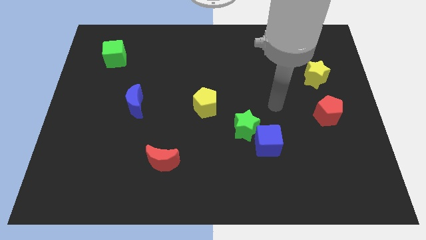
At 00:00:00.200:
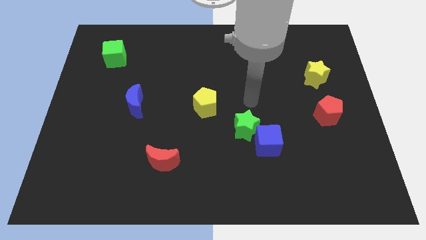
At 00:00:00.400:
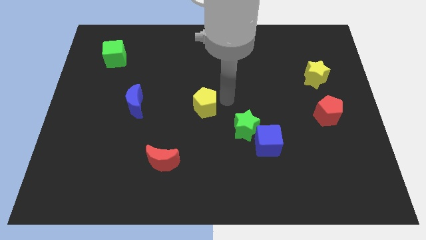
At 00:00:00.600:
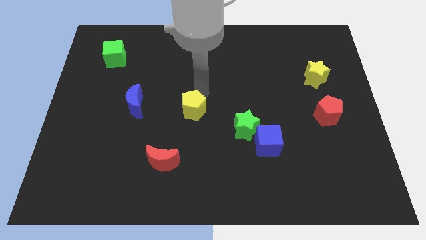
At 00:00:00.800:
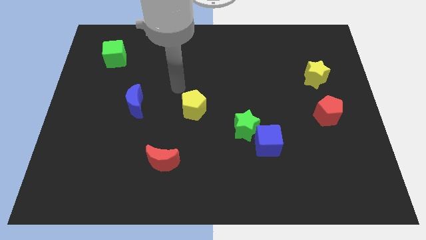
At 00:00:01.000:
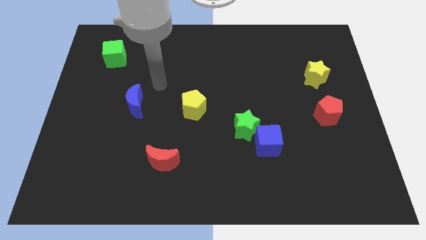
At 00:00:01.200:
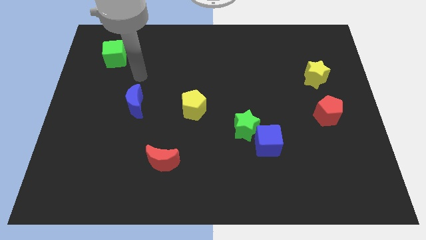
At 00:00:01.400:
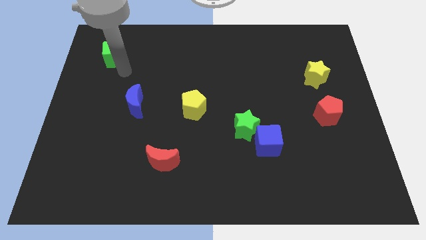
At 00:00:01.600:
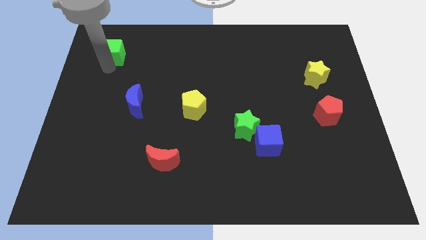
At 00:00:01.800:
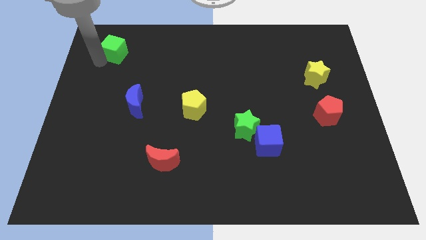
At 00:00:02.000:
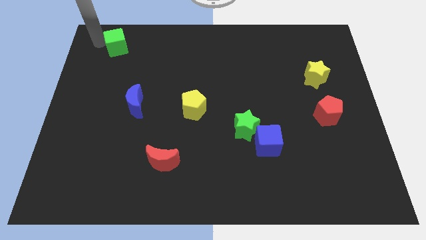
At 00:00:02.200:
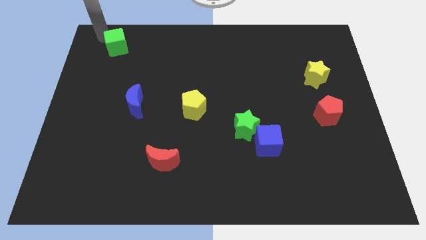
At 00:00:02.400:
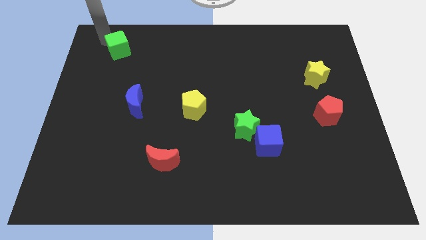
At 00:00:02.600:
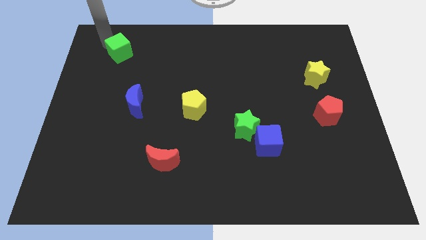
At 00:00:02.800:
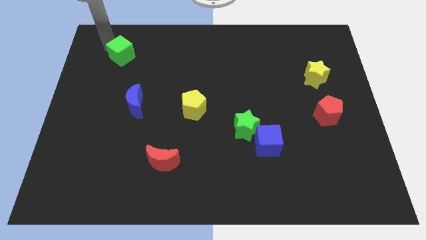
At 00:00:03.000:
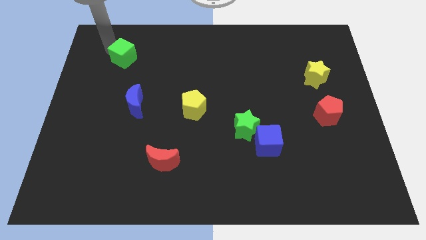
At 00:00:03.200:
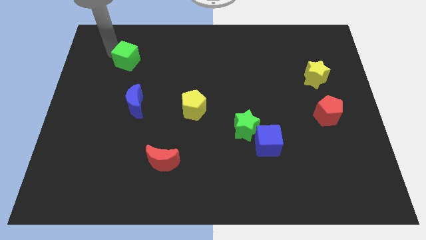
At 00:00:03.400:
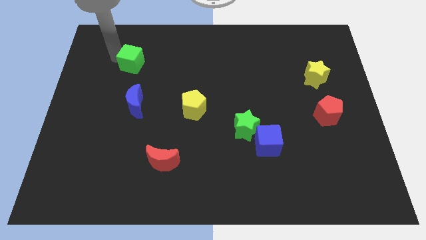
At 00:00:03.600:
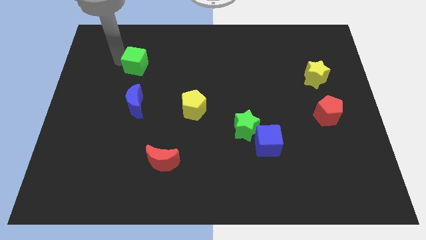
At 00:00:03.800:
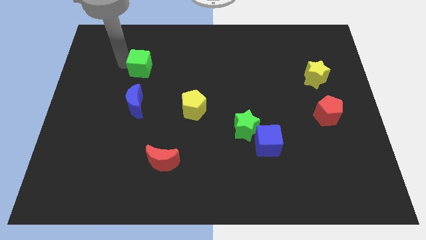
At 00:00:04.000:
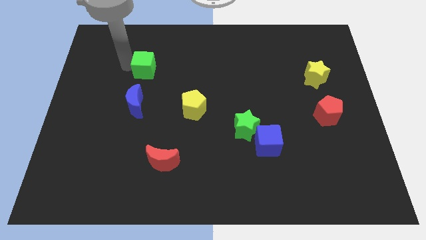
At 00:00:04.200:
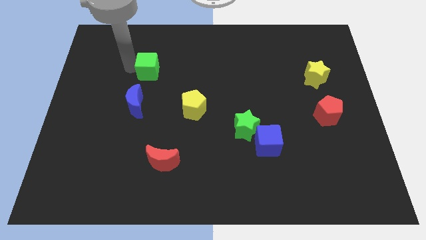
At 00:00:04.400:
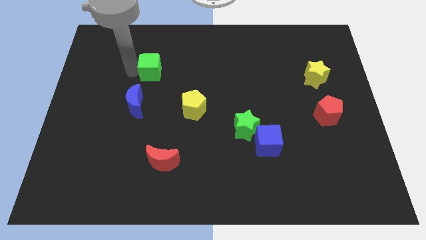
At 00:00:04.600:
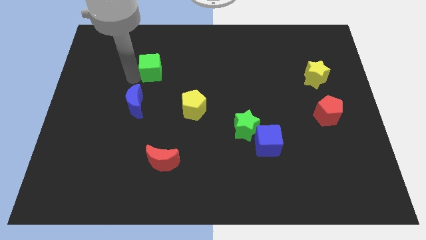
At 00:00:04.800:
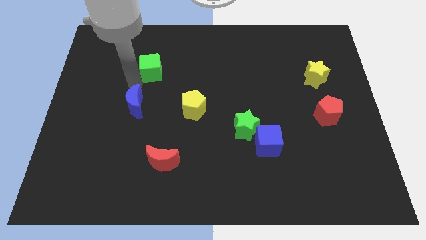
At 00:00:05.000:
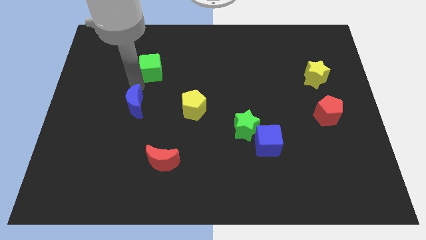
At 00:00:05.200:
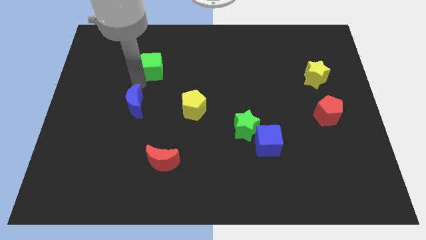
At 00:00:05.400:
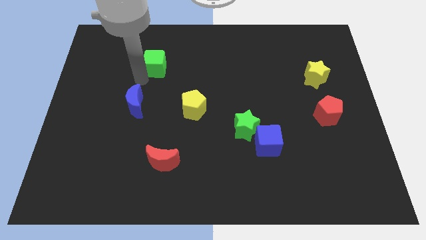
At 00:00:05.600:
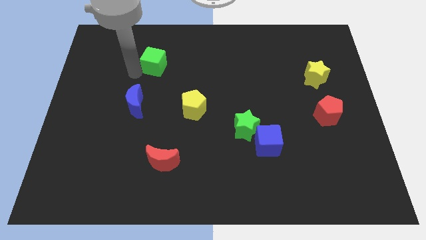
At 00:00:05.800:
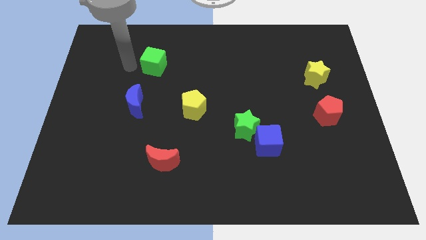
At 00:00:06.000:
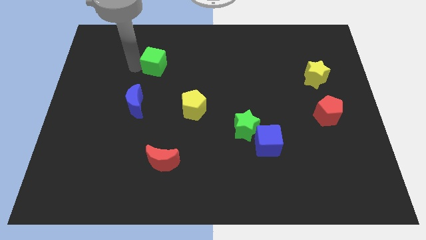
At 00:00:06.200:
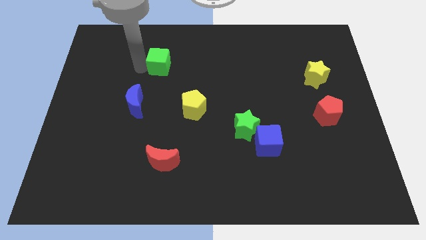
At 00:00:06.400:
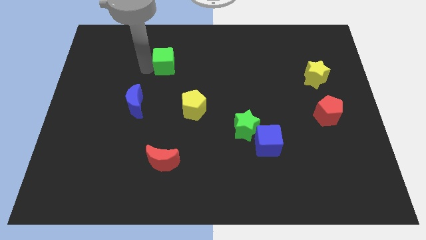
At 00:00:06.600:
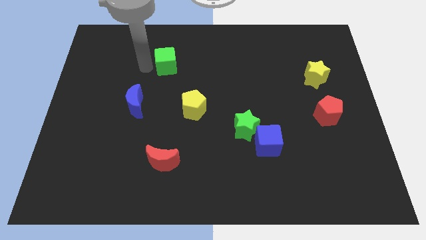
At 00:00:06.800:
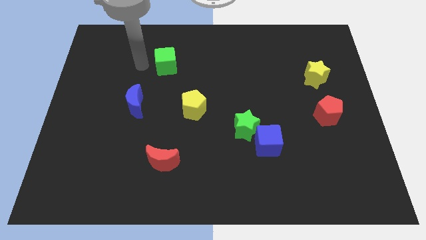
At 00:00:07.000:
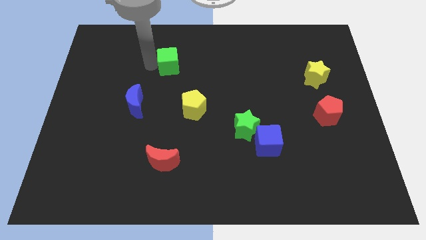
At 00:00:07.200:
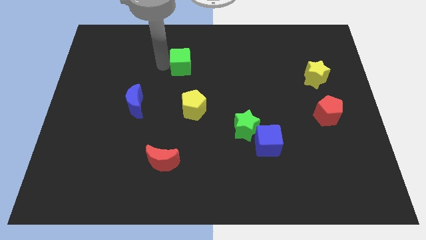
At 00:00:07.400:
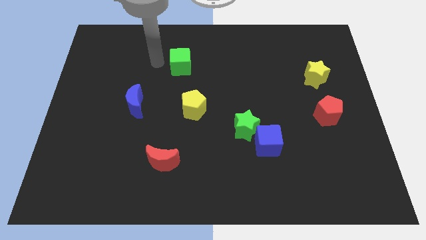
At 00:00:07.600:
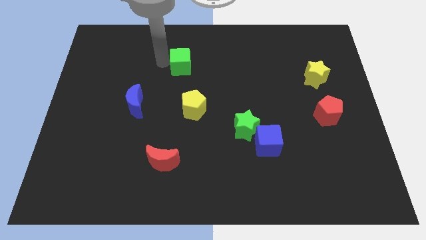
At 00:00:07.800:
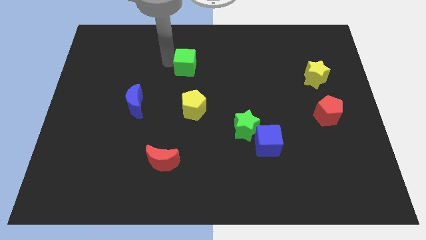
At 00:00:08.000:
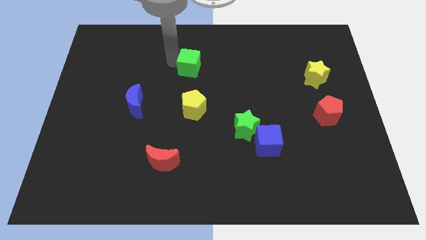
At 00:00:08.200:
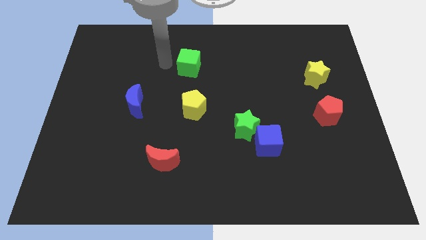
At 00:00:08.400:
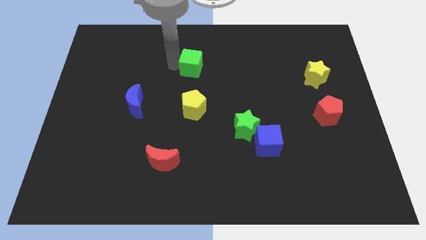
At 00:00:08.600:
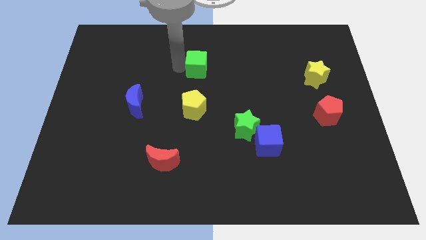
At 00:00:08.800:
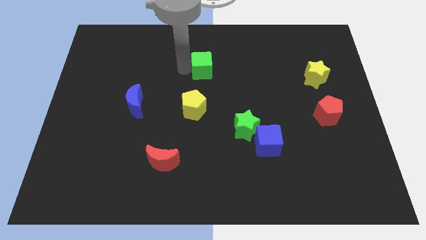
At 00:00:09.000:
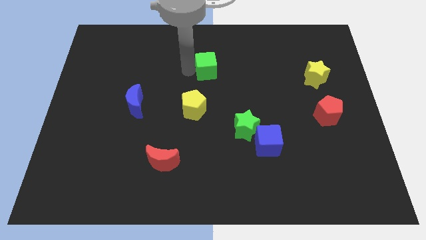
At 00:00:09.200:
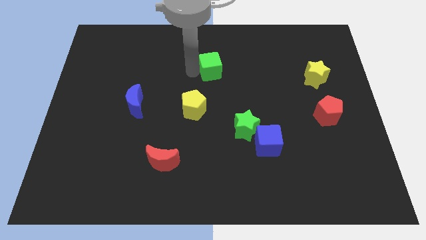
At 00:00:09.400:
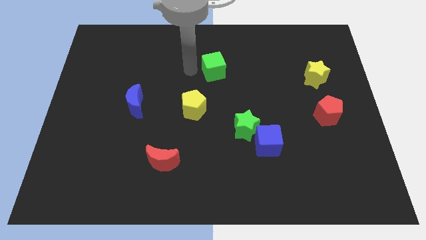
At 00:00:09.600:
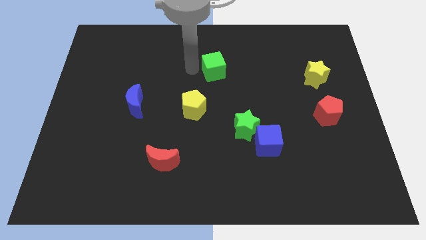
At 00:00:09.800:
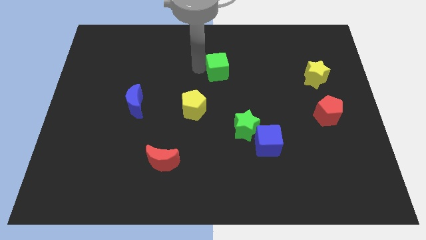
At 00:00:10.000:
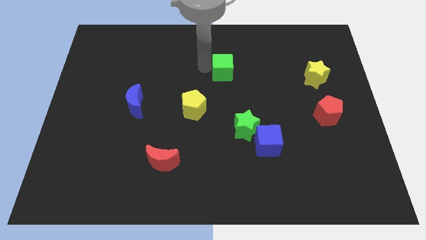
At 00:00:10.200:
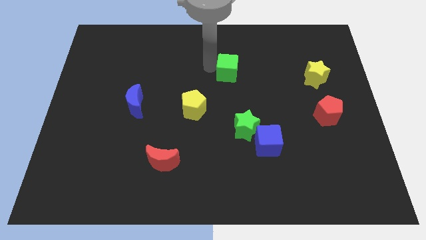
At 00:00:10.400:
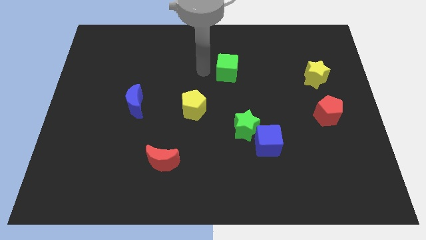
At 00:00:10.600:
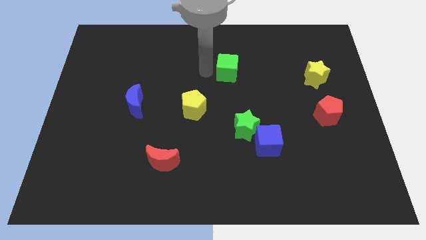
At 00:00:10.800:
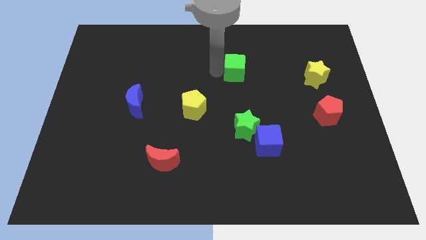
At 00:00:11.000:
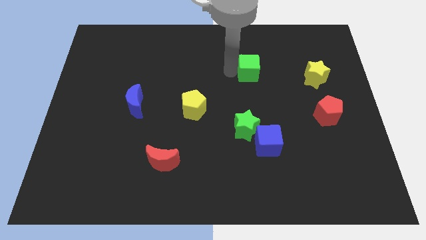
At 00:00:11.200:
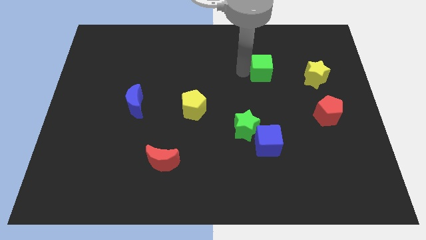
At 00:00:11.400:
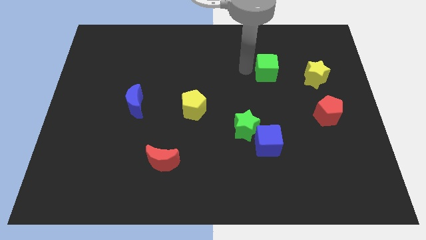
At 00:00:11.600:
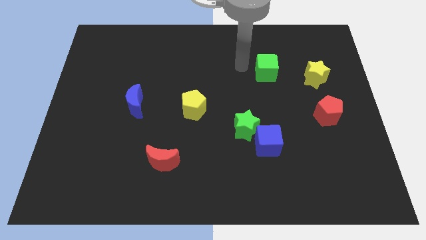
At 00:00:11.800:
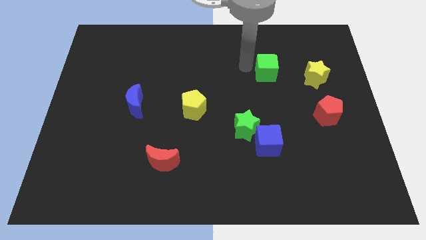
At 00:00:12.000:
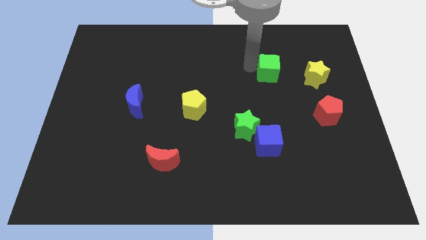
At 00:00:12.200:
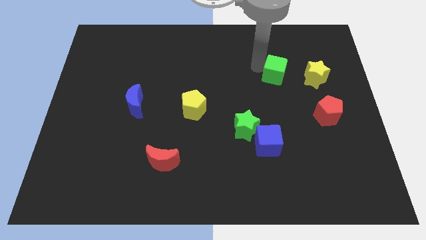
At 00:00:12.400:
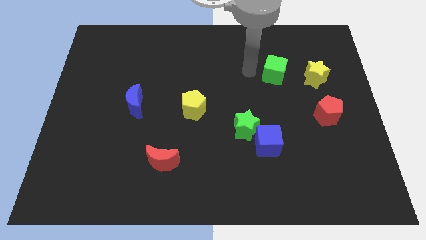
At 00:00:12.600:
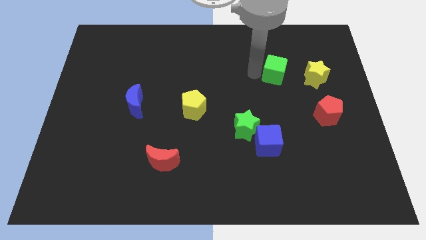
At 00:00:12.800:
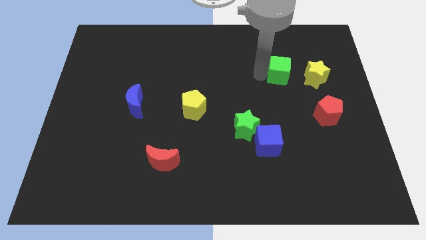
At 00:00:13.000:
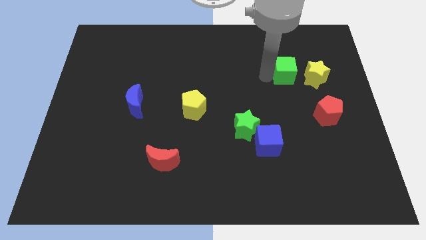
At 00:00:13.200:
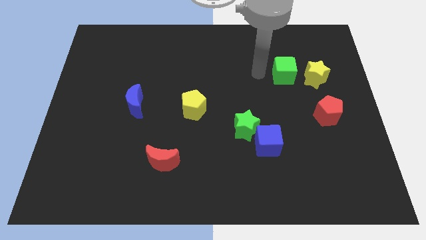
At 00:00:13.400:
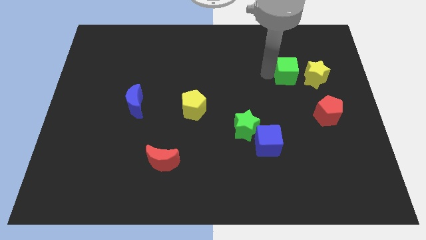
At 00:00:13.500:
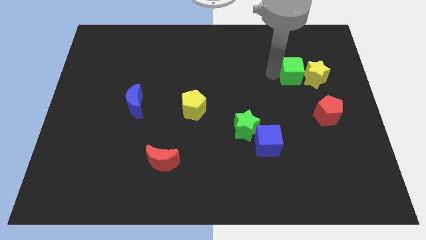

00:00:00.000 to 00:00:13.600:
move the green cube close to the yellow star

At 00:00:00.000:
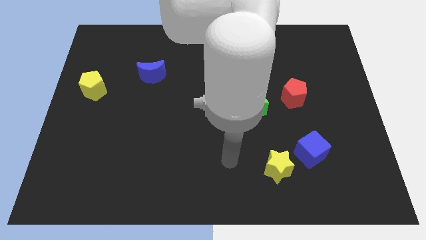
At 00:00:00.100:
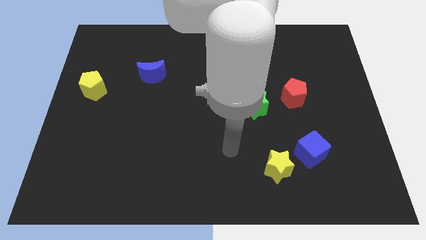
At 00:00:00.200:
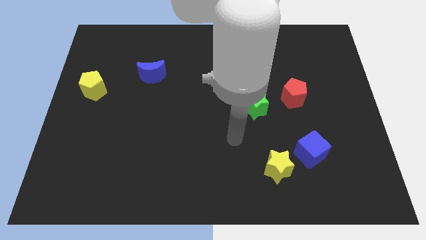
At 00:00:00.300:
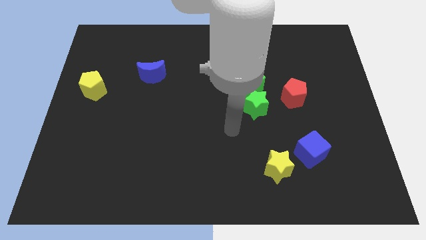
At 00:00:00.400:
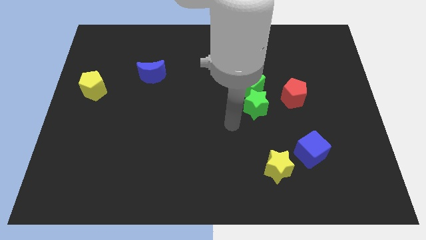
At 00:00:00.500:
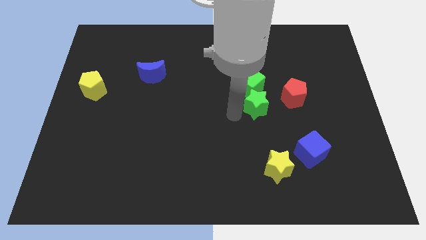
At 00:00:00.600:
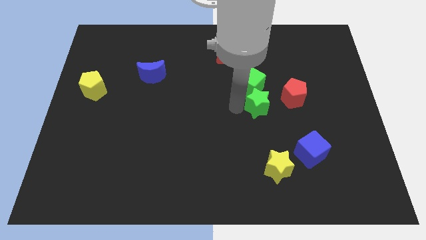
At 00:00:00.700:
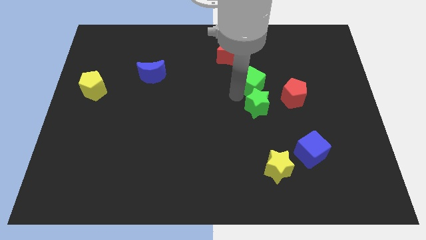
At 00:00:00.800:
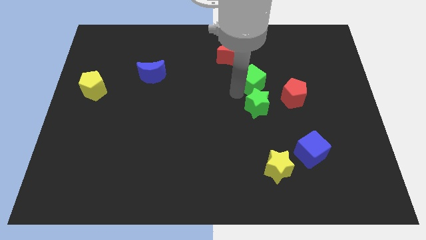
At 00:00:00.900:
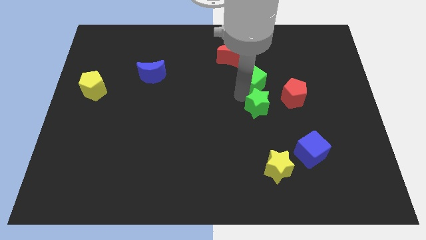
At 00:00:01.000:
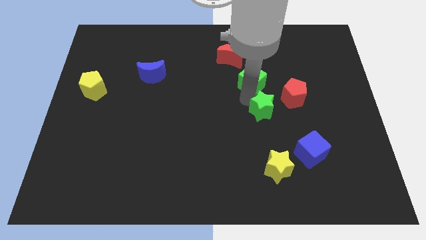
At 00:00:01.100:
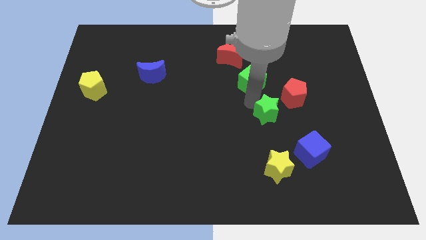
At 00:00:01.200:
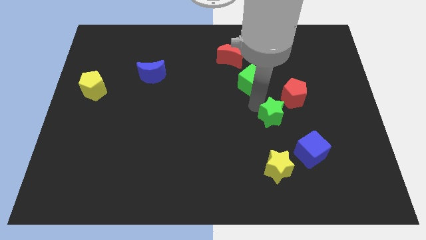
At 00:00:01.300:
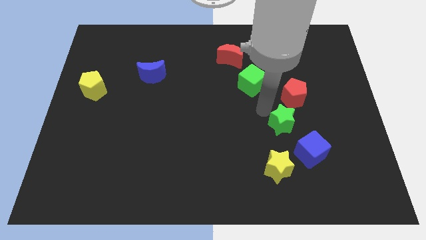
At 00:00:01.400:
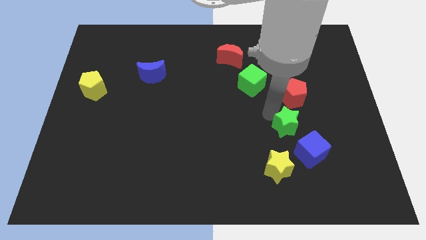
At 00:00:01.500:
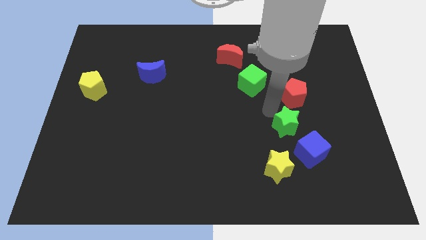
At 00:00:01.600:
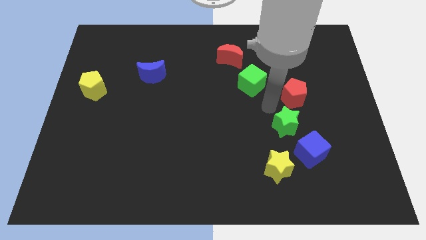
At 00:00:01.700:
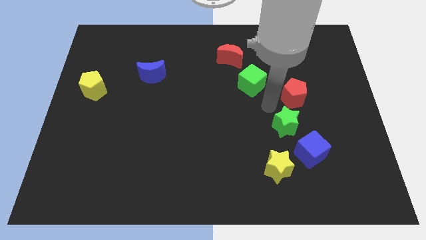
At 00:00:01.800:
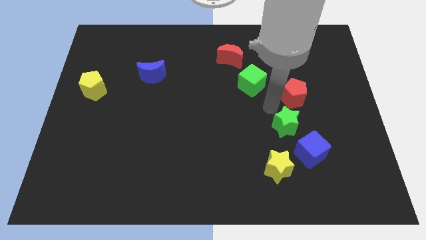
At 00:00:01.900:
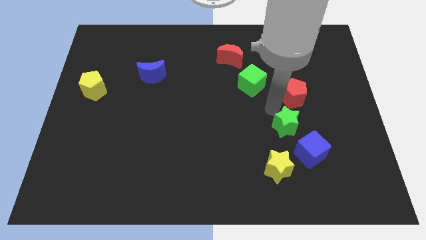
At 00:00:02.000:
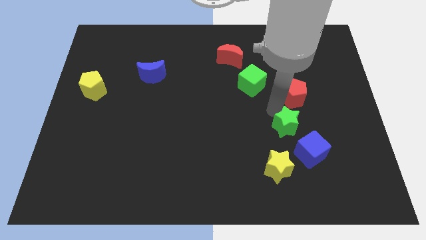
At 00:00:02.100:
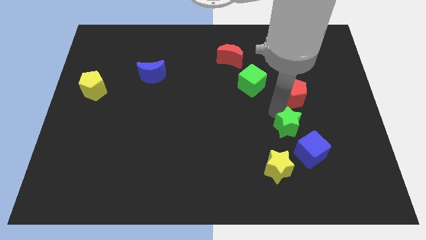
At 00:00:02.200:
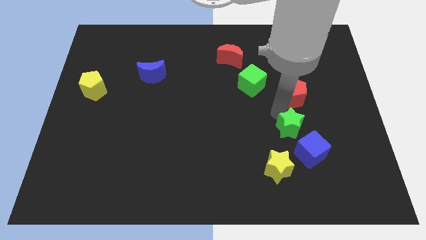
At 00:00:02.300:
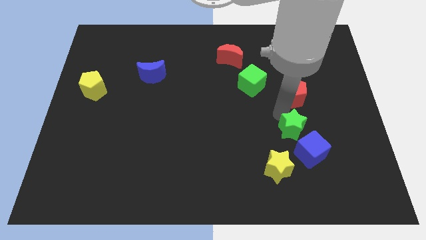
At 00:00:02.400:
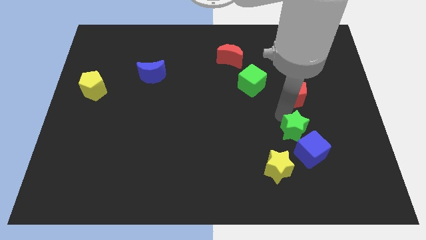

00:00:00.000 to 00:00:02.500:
put the green star towards the blue cube
